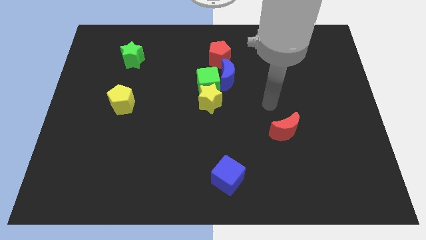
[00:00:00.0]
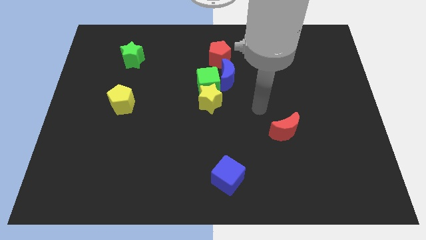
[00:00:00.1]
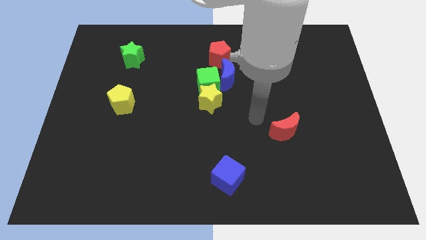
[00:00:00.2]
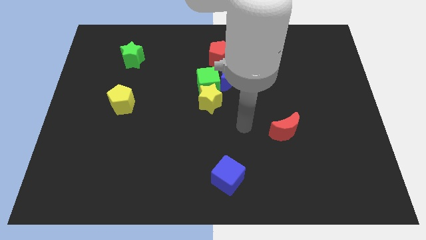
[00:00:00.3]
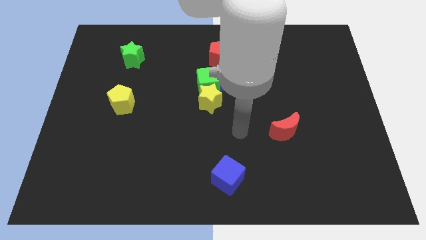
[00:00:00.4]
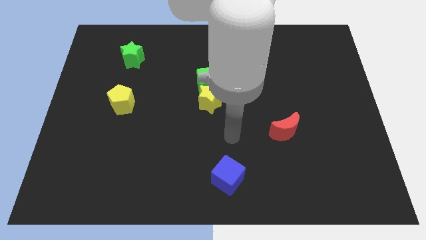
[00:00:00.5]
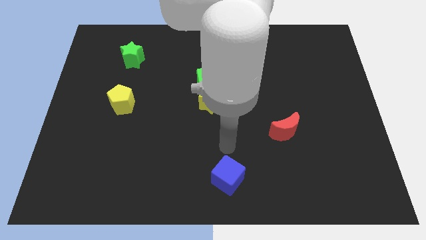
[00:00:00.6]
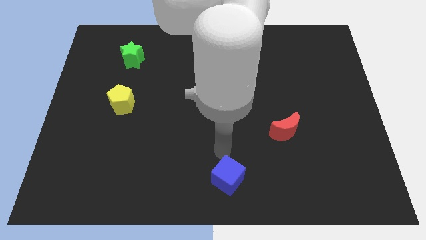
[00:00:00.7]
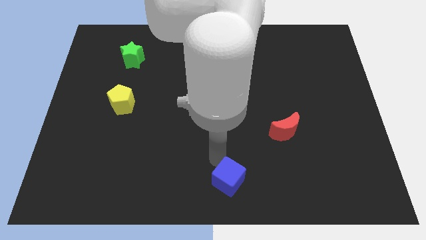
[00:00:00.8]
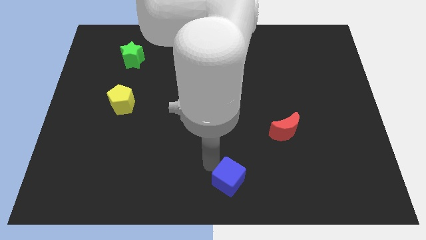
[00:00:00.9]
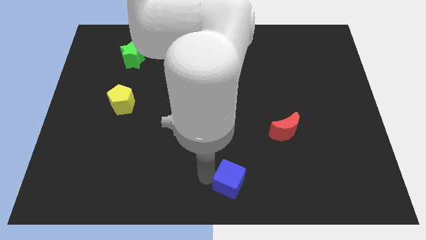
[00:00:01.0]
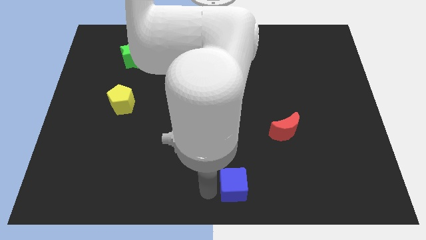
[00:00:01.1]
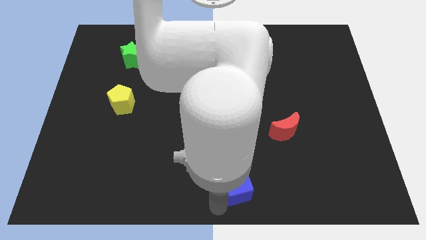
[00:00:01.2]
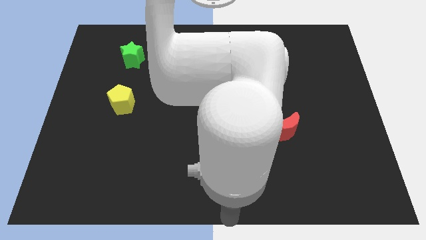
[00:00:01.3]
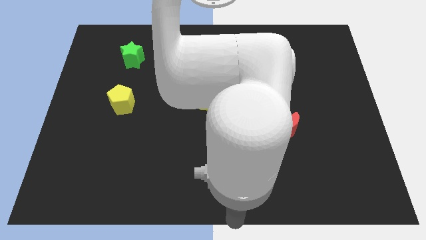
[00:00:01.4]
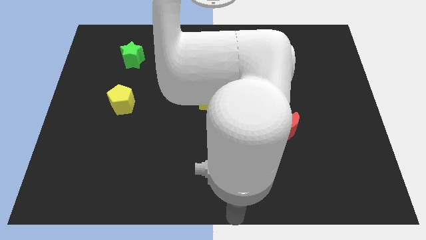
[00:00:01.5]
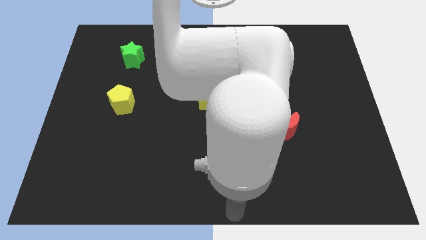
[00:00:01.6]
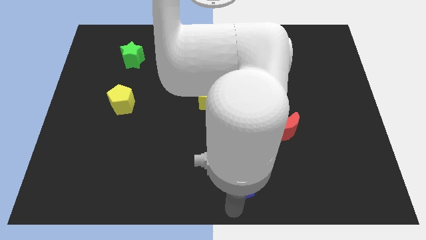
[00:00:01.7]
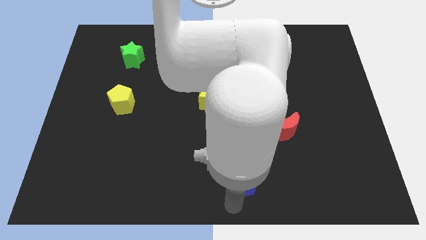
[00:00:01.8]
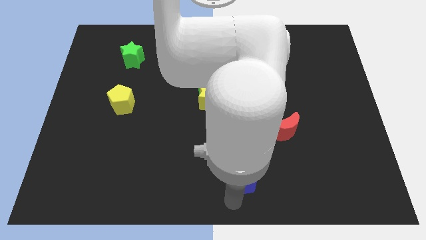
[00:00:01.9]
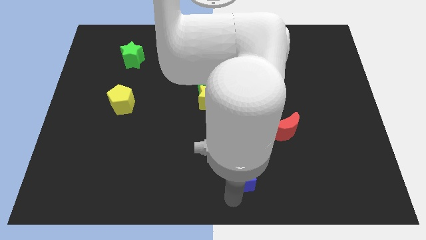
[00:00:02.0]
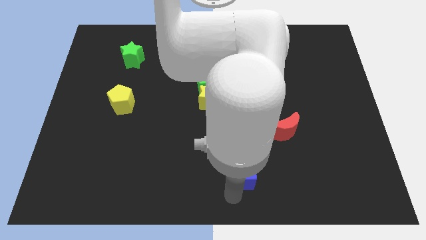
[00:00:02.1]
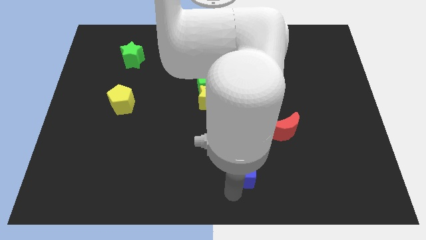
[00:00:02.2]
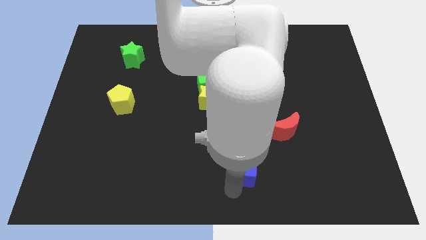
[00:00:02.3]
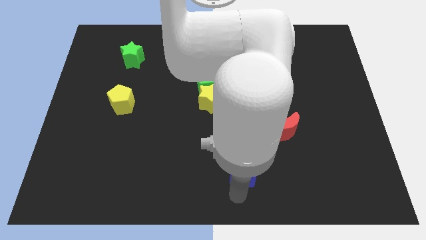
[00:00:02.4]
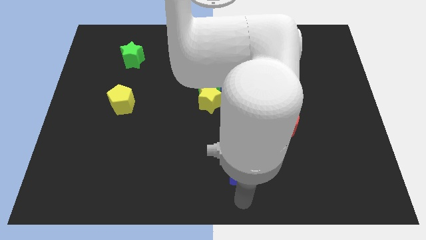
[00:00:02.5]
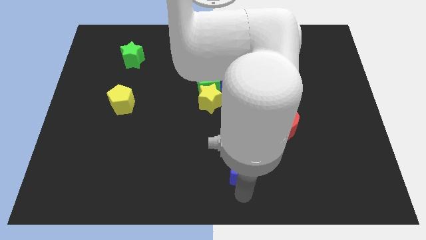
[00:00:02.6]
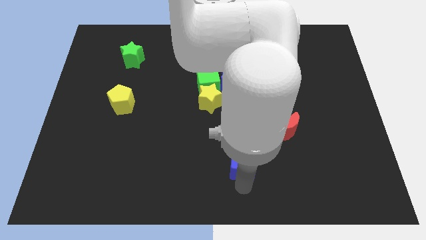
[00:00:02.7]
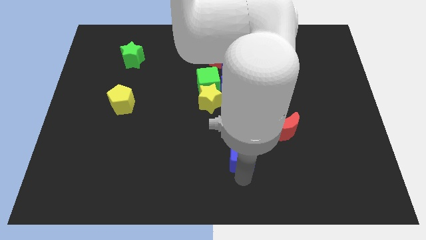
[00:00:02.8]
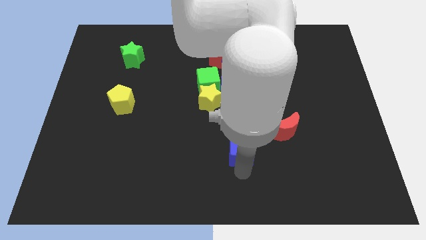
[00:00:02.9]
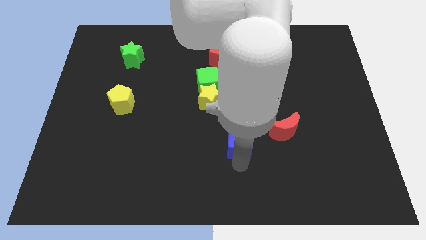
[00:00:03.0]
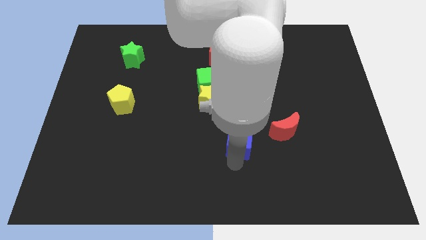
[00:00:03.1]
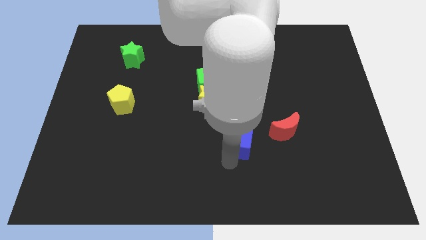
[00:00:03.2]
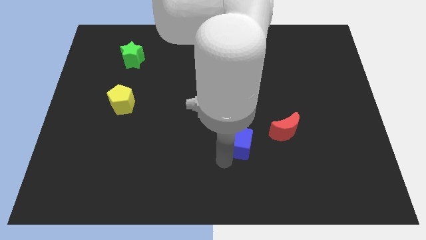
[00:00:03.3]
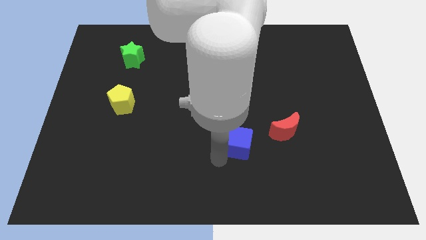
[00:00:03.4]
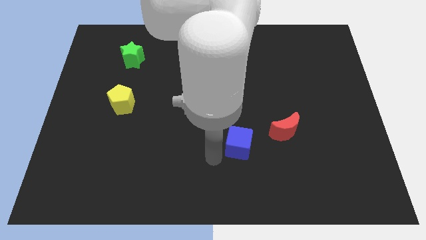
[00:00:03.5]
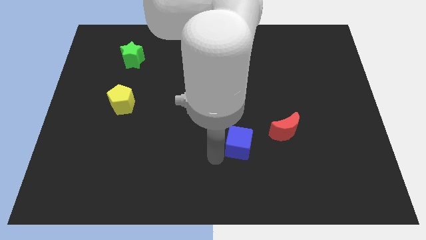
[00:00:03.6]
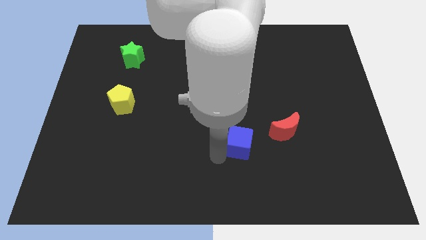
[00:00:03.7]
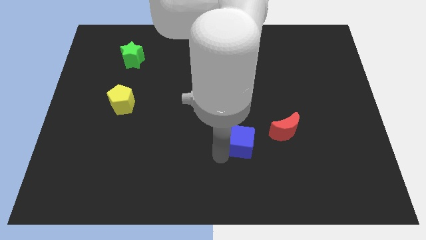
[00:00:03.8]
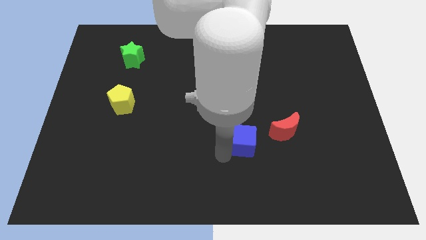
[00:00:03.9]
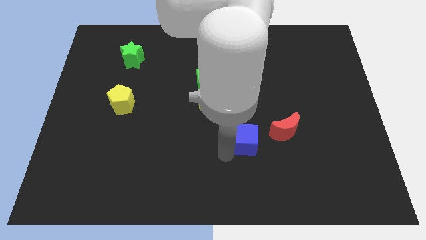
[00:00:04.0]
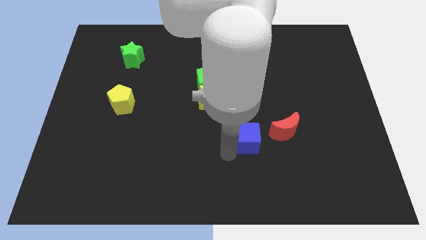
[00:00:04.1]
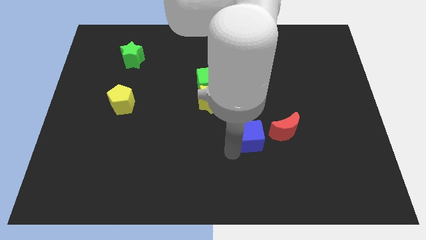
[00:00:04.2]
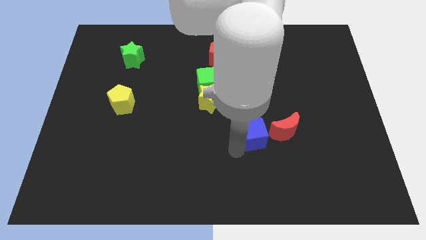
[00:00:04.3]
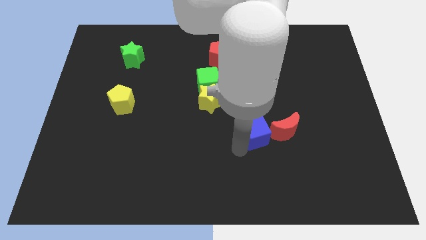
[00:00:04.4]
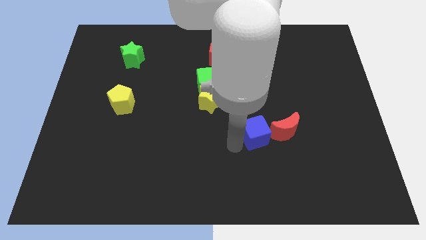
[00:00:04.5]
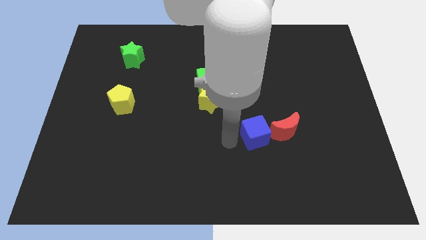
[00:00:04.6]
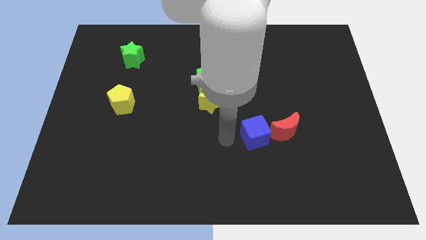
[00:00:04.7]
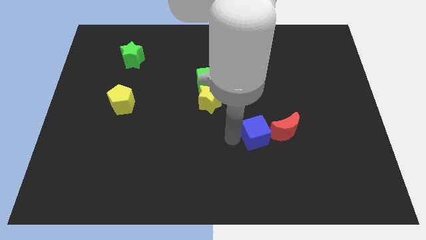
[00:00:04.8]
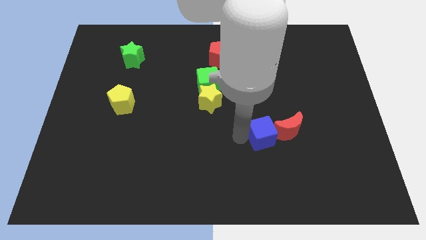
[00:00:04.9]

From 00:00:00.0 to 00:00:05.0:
slide the blue cube close to the red moon

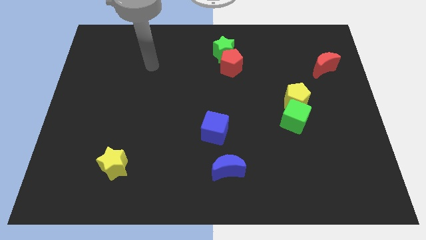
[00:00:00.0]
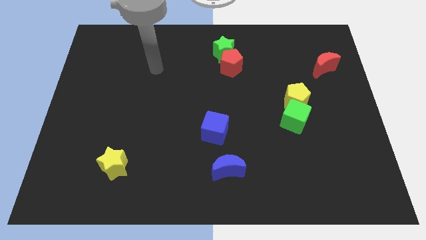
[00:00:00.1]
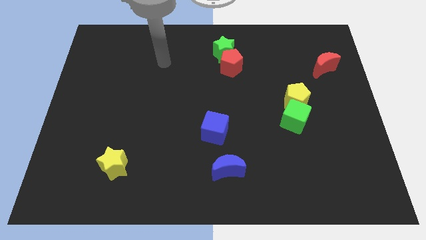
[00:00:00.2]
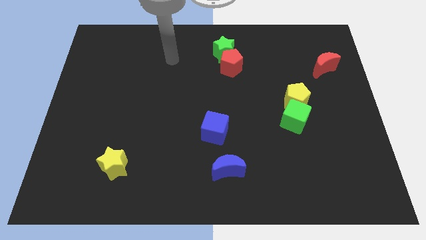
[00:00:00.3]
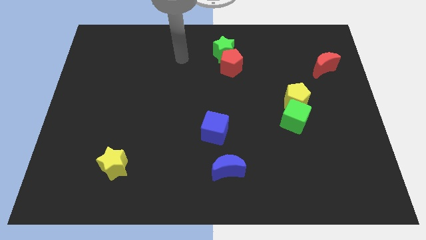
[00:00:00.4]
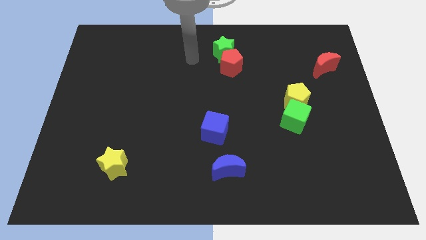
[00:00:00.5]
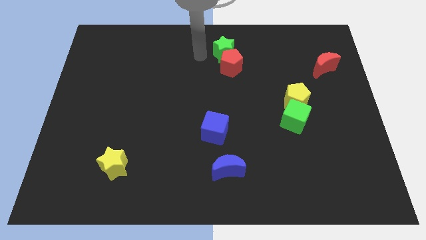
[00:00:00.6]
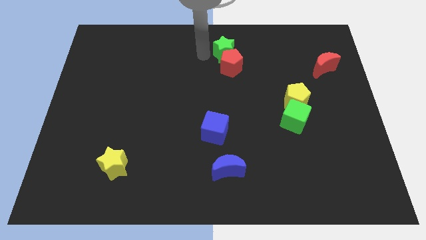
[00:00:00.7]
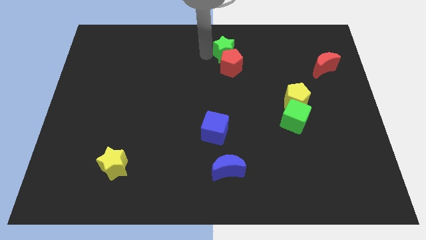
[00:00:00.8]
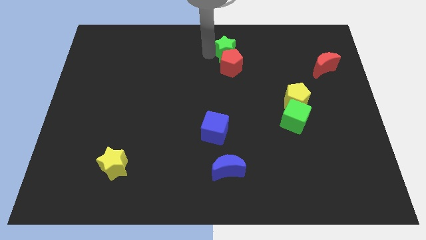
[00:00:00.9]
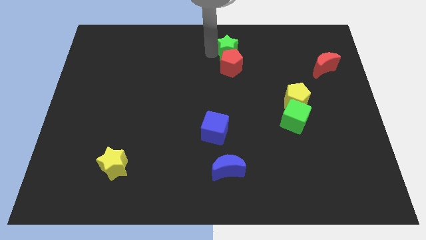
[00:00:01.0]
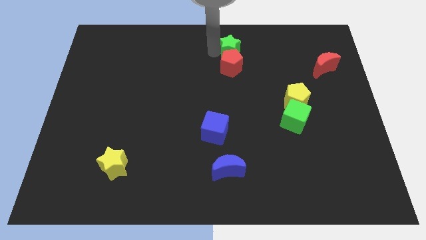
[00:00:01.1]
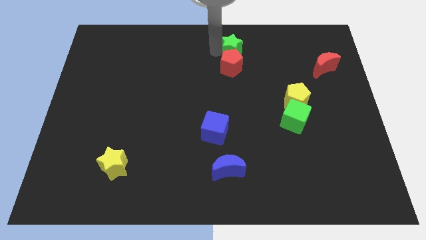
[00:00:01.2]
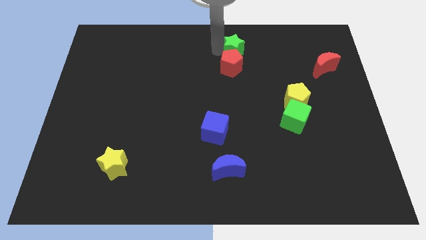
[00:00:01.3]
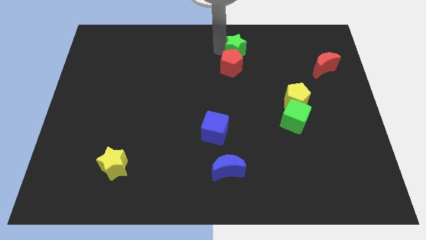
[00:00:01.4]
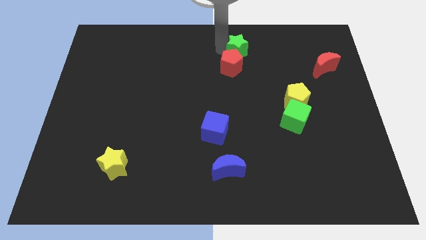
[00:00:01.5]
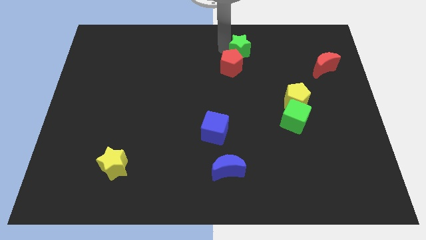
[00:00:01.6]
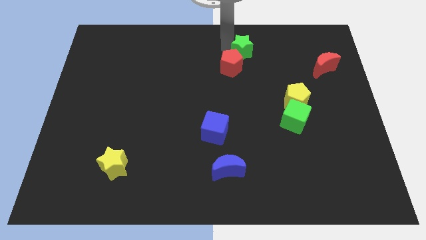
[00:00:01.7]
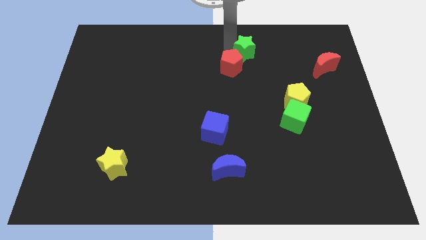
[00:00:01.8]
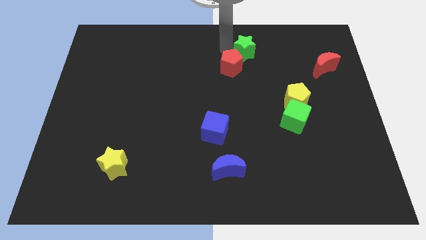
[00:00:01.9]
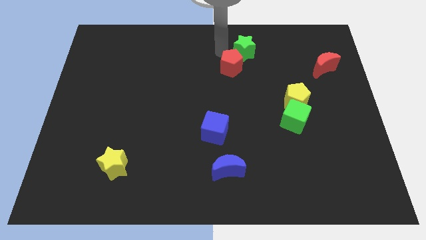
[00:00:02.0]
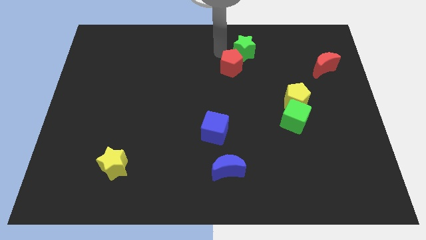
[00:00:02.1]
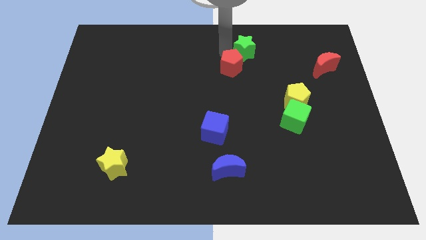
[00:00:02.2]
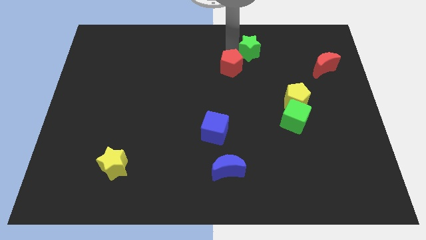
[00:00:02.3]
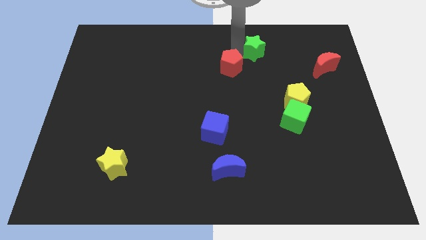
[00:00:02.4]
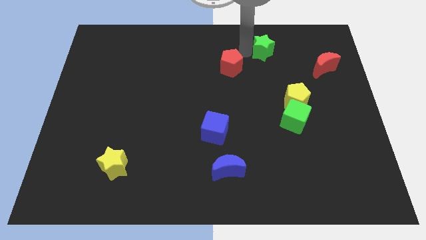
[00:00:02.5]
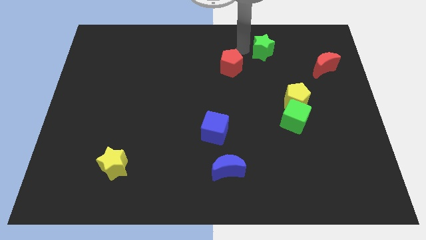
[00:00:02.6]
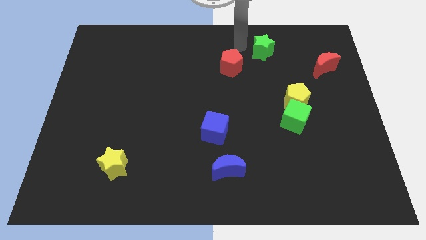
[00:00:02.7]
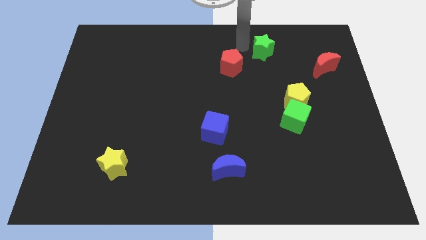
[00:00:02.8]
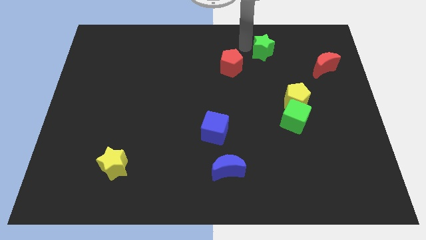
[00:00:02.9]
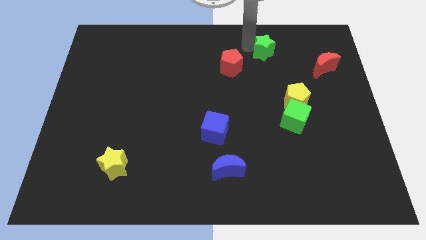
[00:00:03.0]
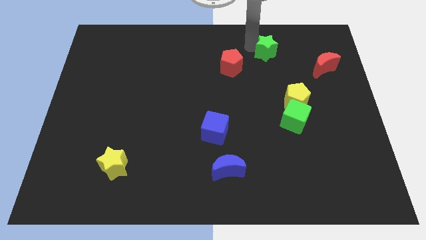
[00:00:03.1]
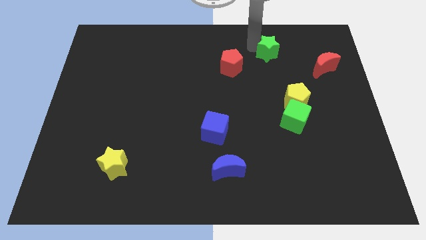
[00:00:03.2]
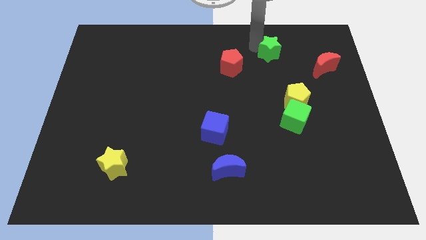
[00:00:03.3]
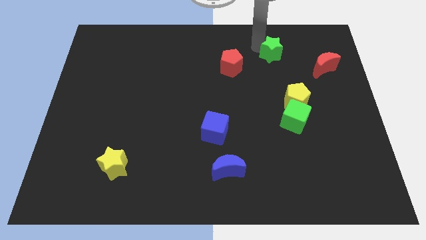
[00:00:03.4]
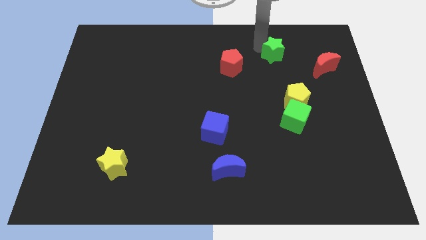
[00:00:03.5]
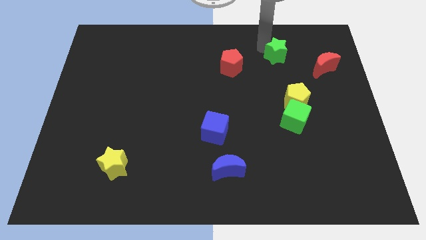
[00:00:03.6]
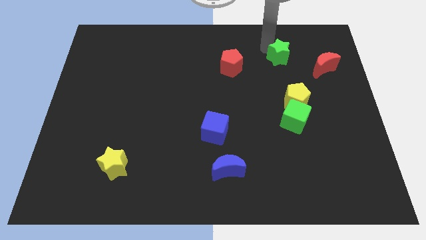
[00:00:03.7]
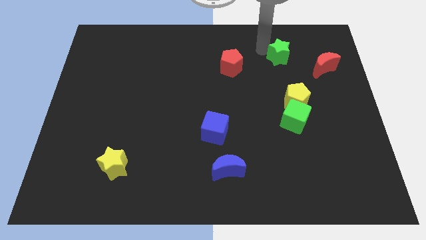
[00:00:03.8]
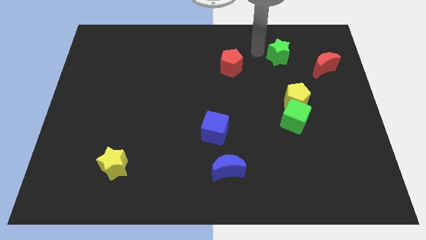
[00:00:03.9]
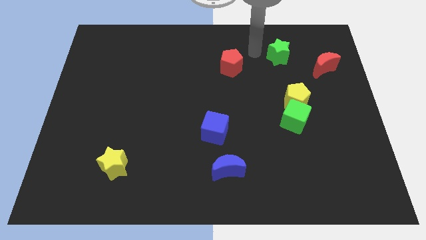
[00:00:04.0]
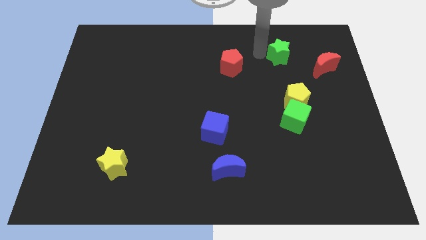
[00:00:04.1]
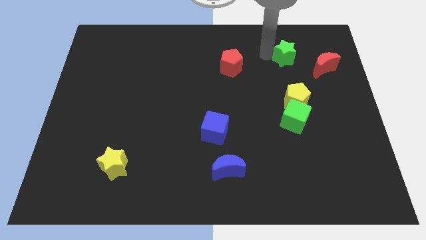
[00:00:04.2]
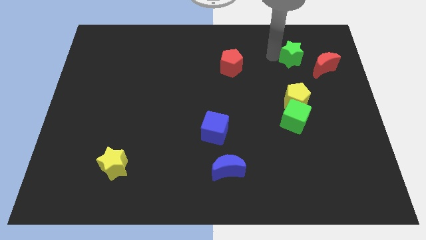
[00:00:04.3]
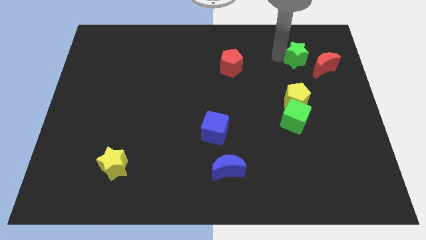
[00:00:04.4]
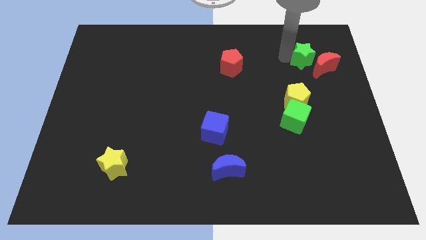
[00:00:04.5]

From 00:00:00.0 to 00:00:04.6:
put the green star close to the red moon
